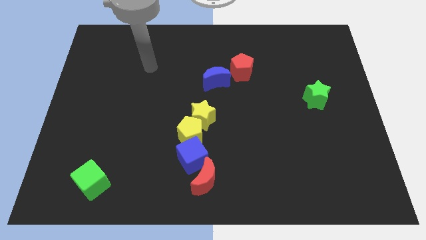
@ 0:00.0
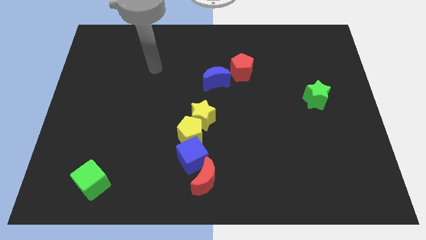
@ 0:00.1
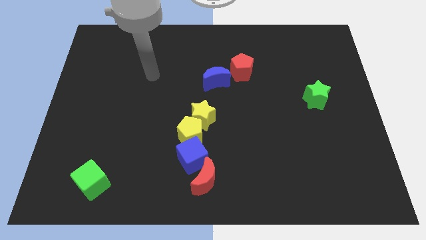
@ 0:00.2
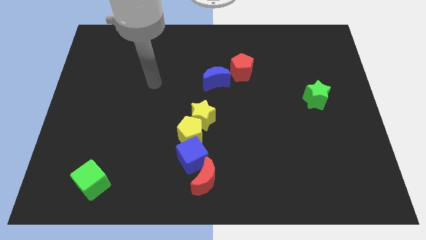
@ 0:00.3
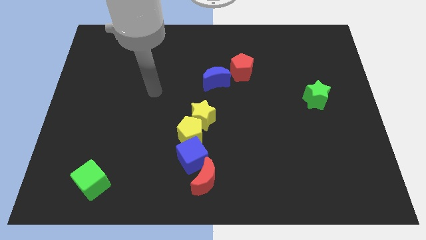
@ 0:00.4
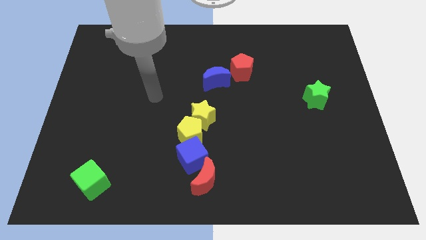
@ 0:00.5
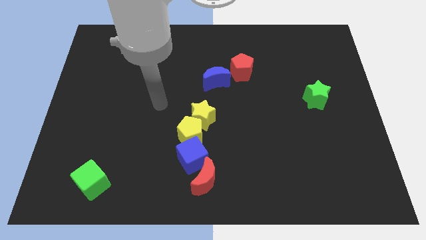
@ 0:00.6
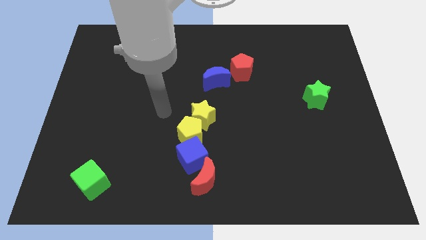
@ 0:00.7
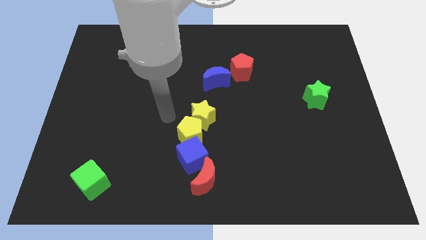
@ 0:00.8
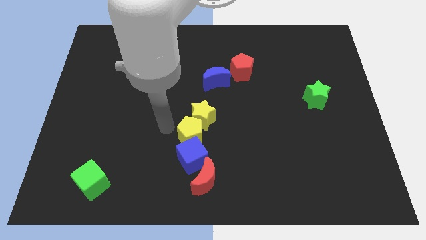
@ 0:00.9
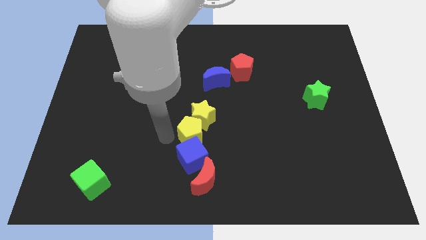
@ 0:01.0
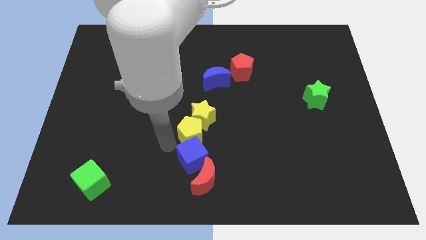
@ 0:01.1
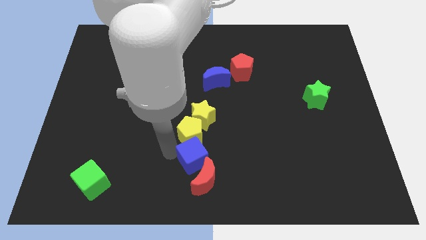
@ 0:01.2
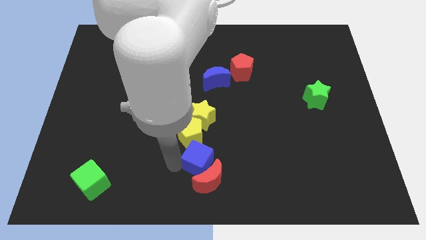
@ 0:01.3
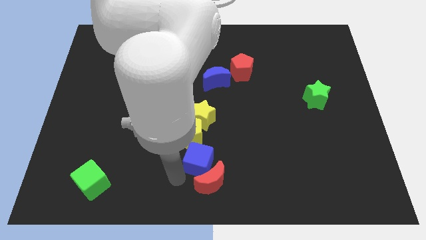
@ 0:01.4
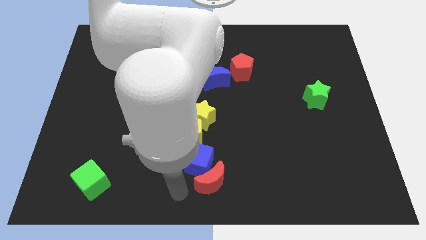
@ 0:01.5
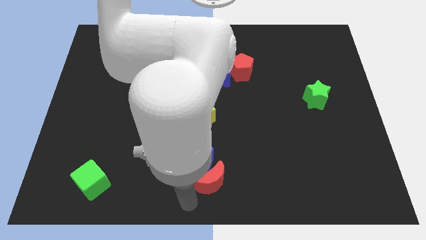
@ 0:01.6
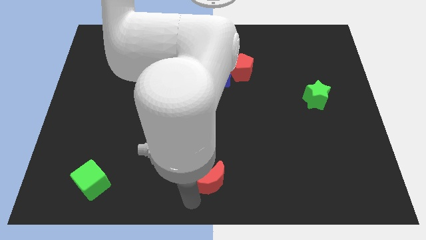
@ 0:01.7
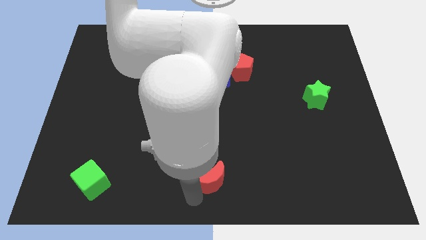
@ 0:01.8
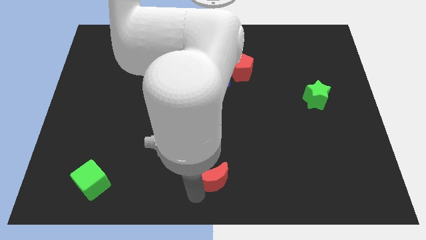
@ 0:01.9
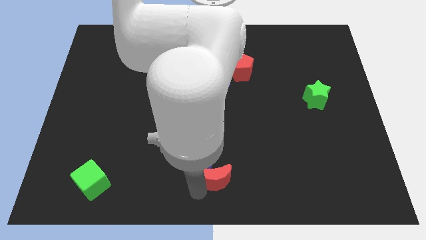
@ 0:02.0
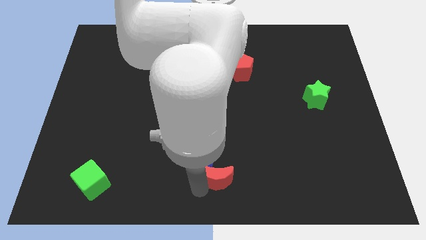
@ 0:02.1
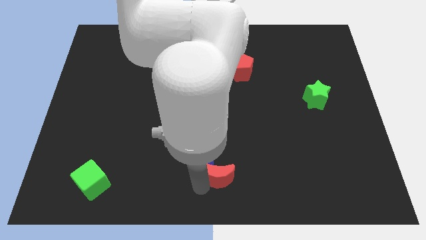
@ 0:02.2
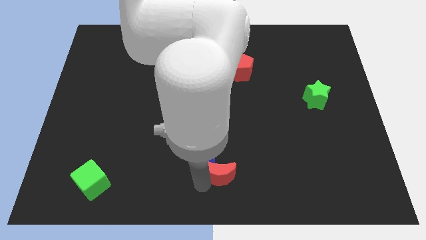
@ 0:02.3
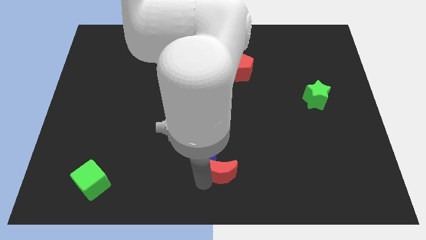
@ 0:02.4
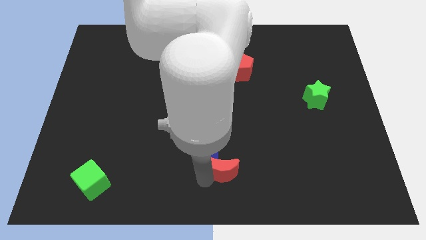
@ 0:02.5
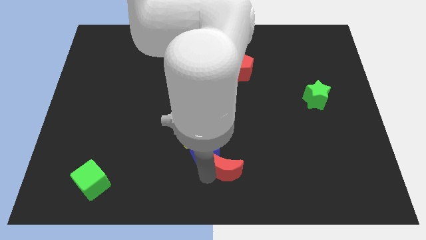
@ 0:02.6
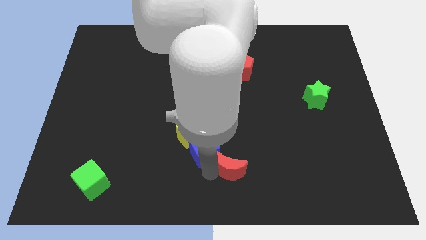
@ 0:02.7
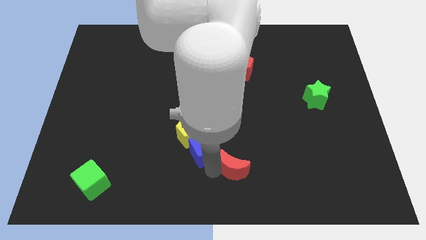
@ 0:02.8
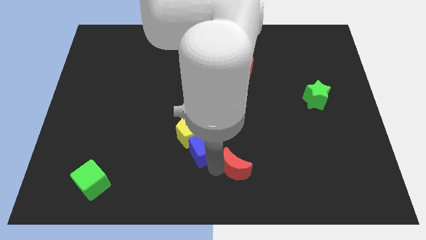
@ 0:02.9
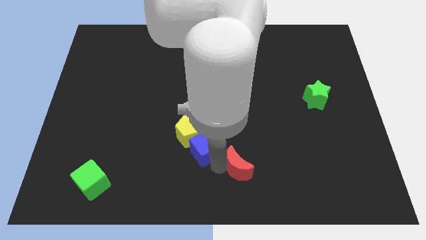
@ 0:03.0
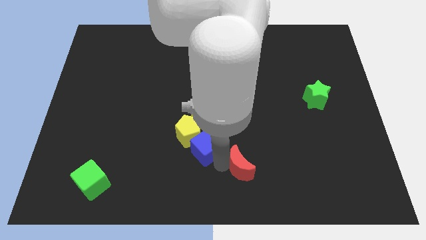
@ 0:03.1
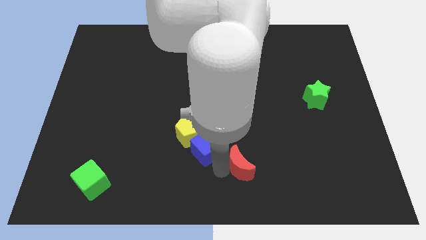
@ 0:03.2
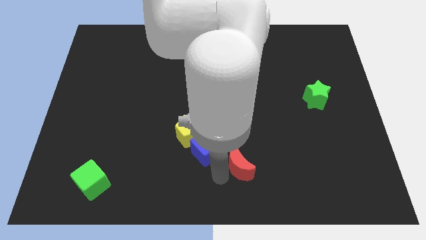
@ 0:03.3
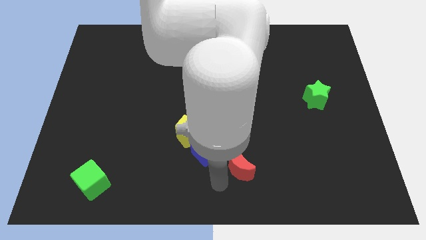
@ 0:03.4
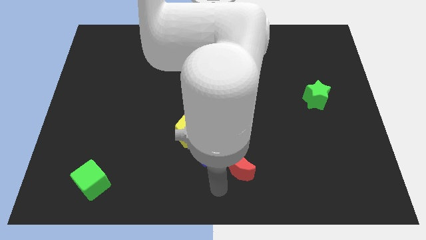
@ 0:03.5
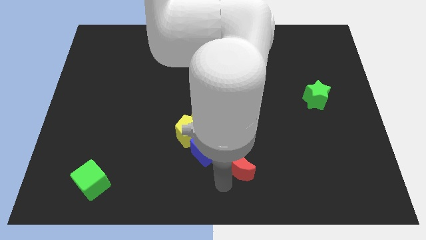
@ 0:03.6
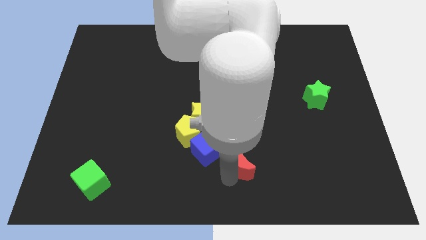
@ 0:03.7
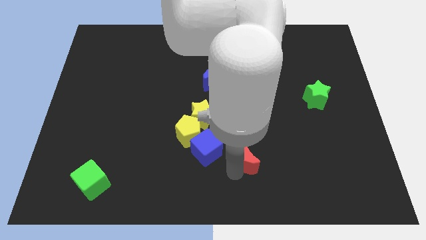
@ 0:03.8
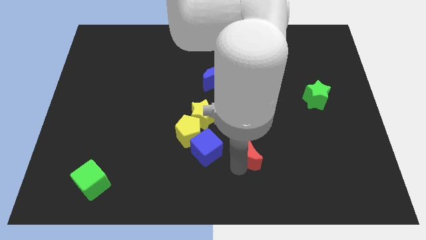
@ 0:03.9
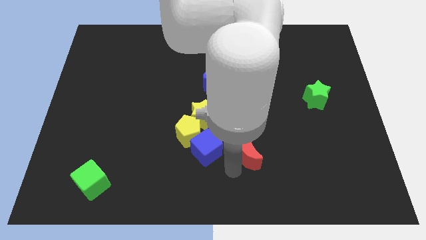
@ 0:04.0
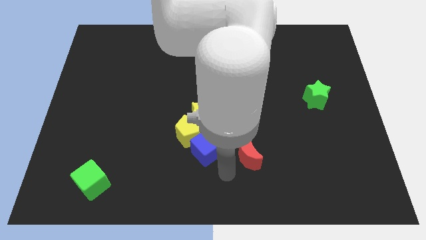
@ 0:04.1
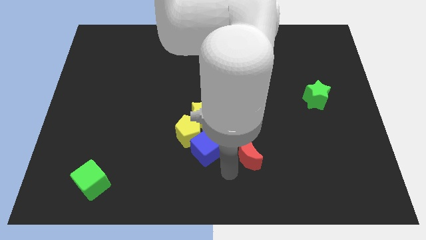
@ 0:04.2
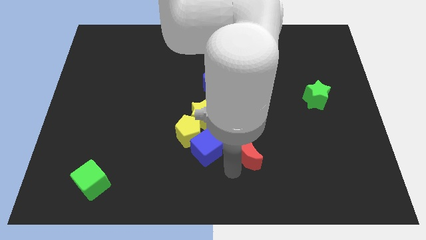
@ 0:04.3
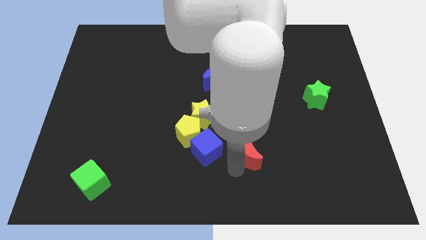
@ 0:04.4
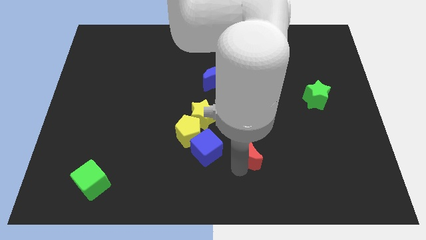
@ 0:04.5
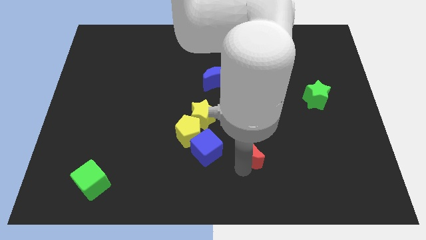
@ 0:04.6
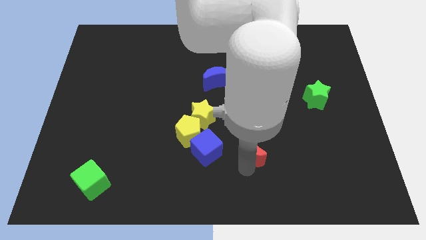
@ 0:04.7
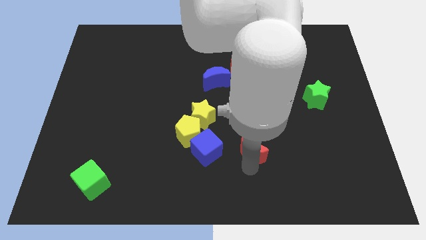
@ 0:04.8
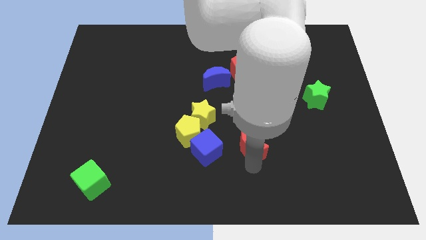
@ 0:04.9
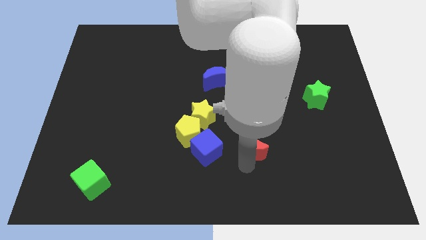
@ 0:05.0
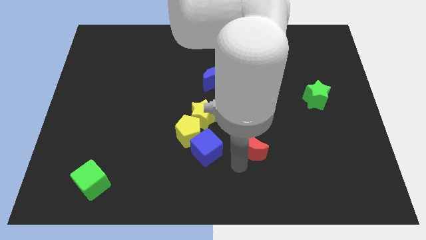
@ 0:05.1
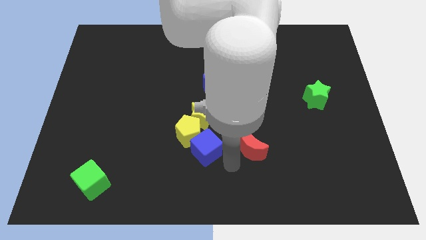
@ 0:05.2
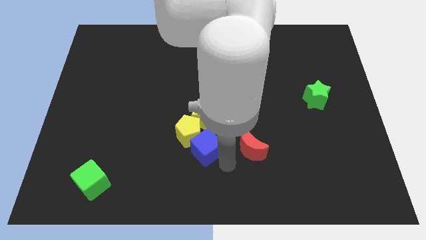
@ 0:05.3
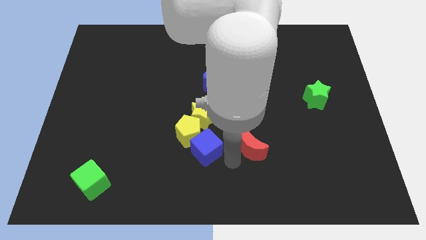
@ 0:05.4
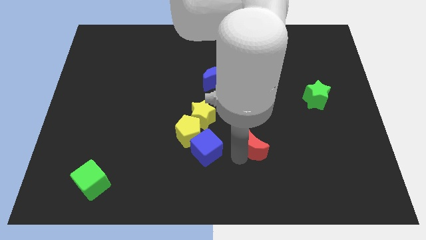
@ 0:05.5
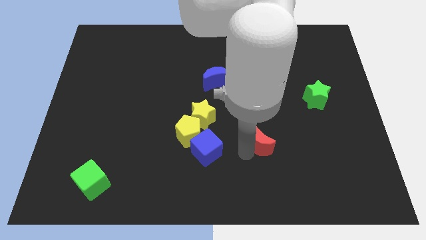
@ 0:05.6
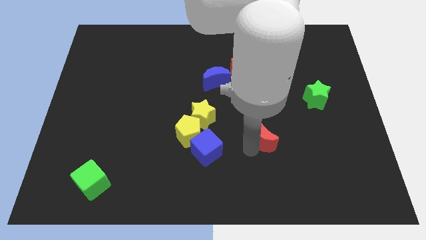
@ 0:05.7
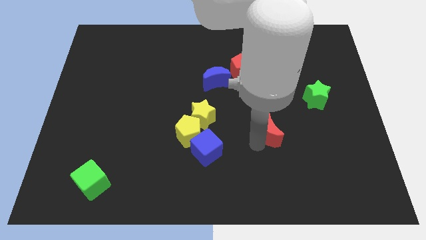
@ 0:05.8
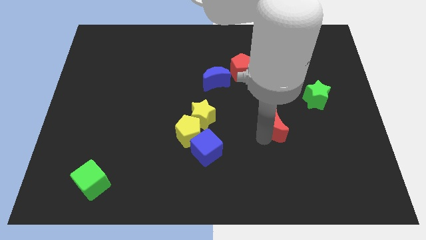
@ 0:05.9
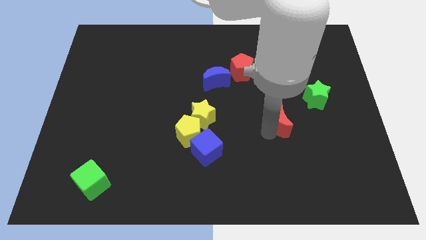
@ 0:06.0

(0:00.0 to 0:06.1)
move the red moon to the bottom left side of the green star

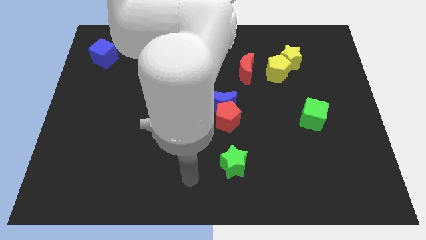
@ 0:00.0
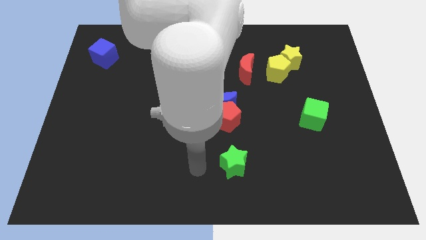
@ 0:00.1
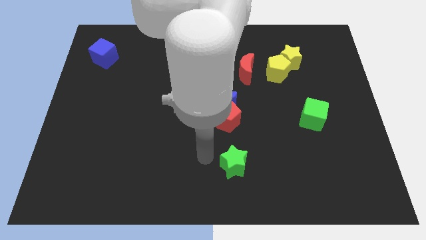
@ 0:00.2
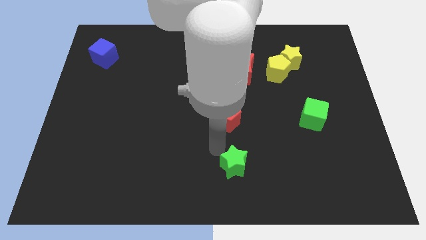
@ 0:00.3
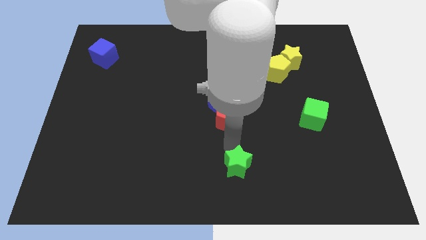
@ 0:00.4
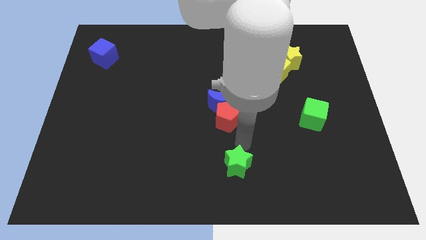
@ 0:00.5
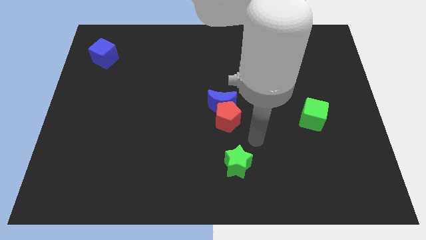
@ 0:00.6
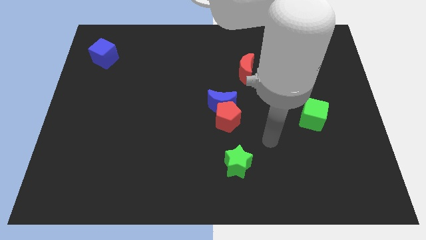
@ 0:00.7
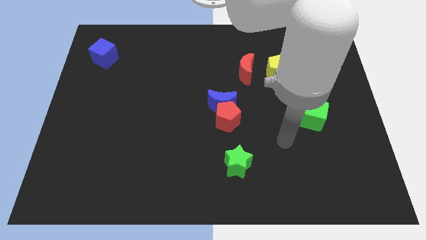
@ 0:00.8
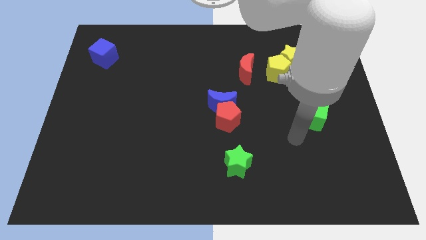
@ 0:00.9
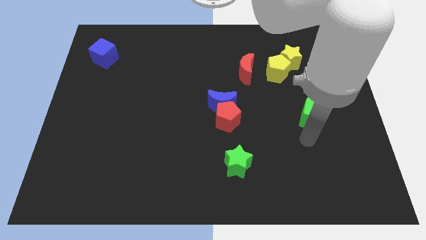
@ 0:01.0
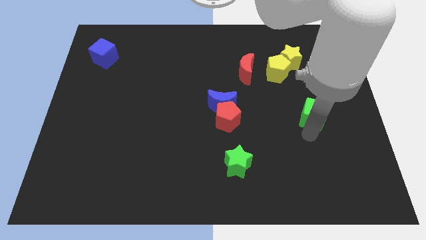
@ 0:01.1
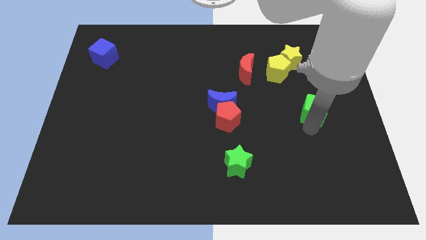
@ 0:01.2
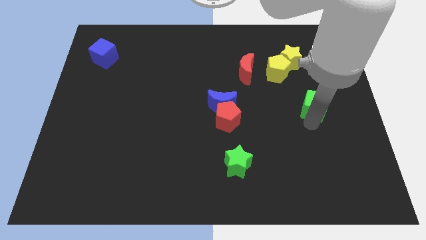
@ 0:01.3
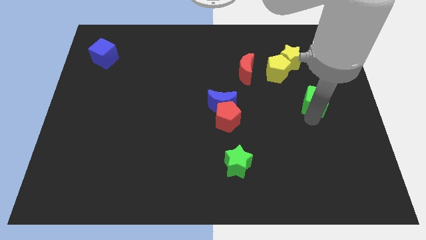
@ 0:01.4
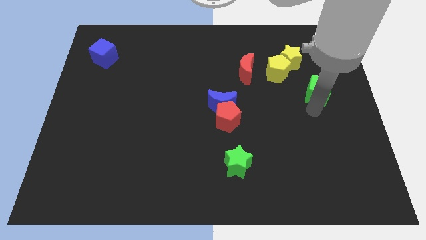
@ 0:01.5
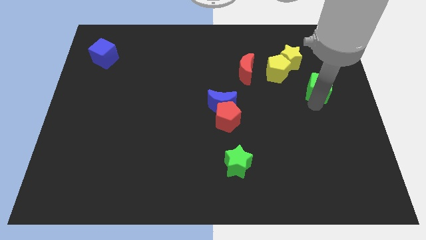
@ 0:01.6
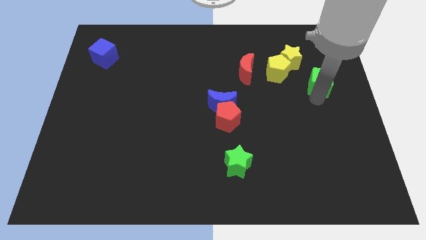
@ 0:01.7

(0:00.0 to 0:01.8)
put the green cube to the right of the yellow pentagon

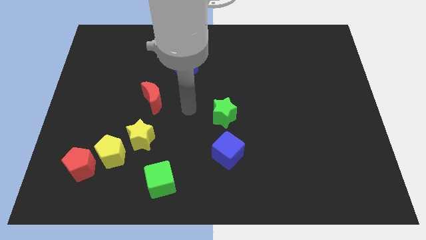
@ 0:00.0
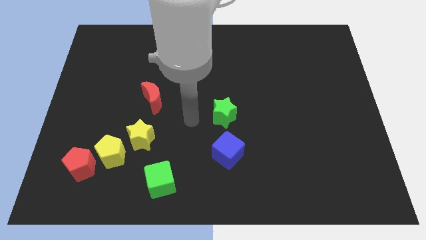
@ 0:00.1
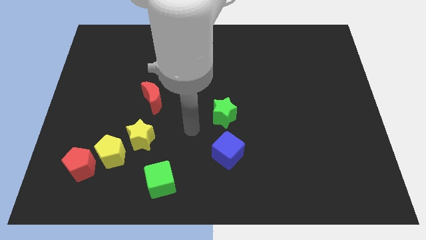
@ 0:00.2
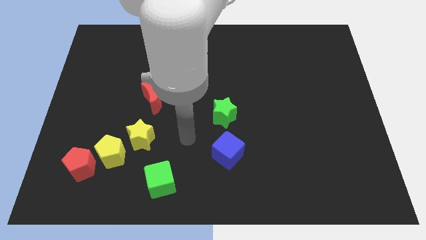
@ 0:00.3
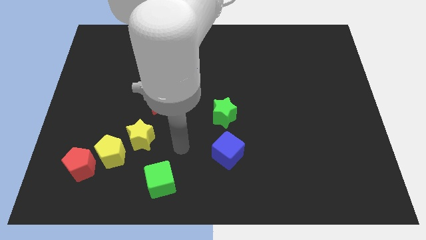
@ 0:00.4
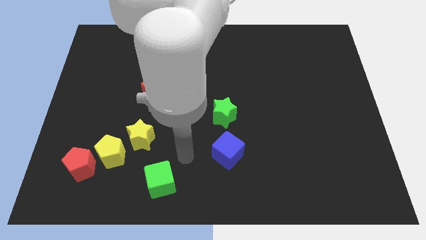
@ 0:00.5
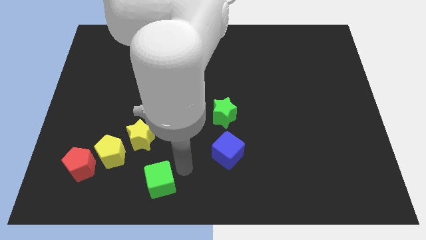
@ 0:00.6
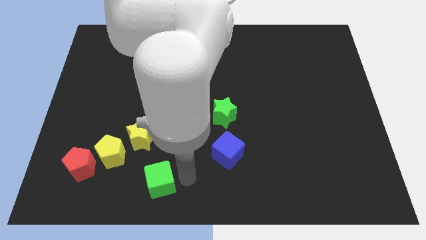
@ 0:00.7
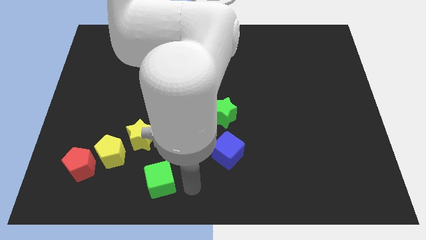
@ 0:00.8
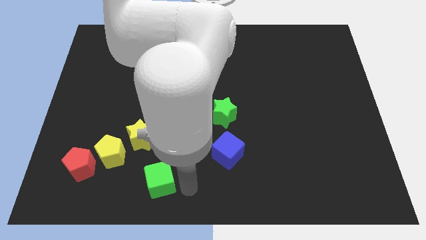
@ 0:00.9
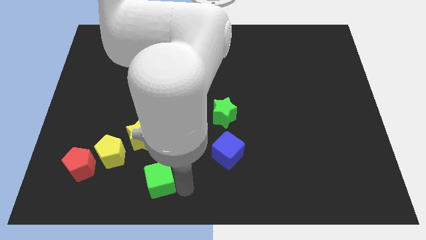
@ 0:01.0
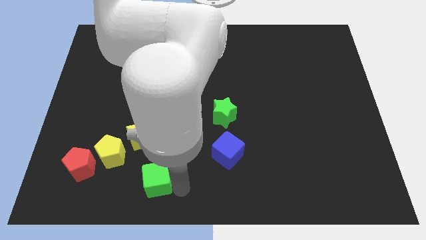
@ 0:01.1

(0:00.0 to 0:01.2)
move the green cube diagonally down and to the right of the yellow pentagon
